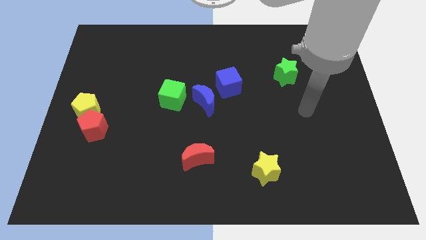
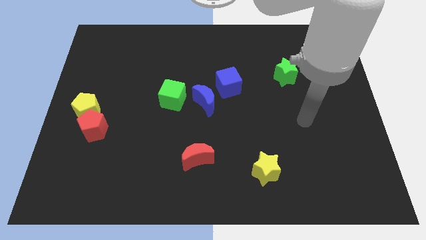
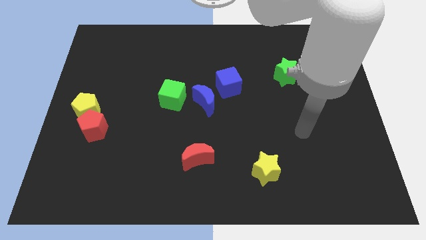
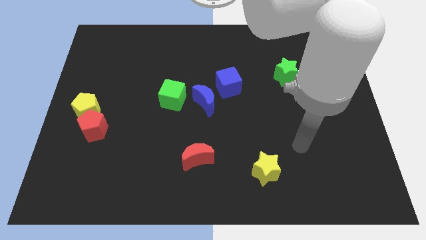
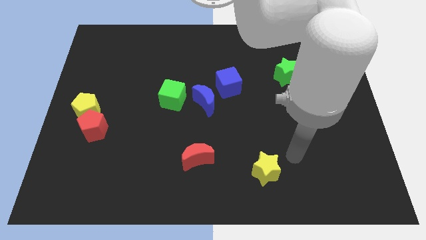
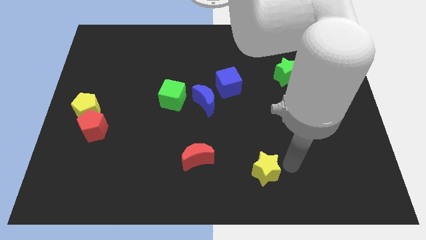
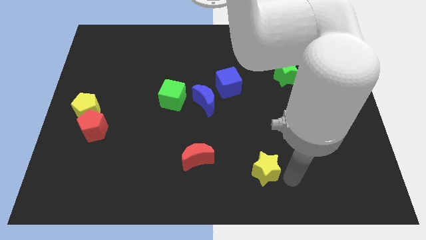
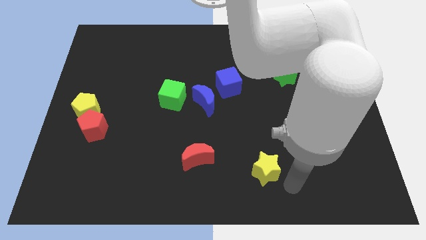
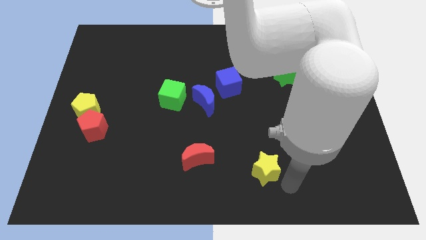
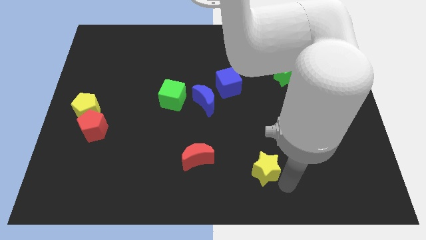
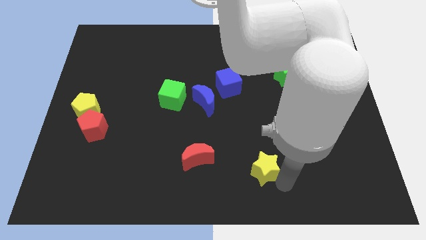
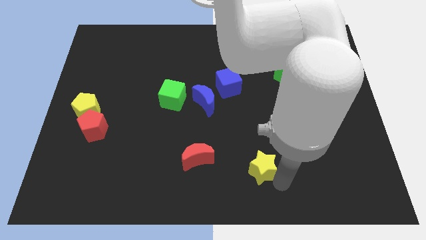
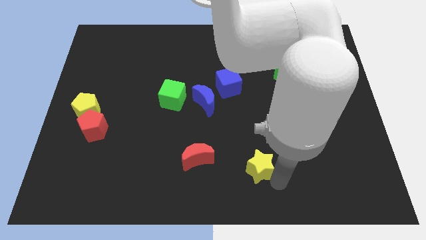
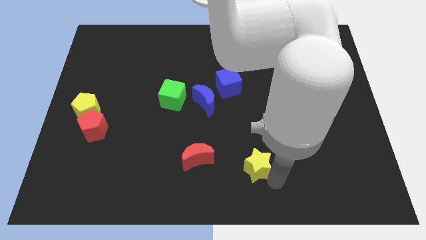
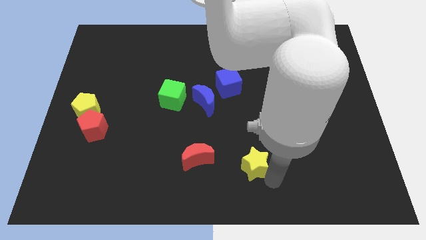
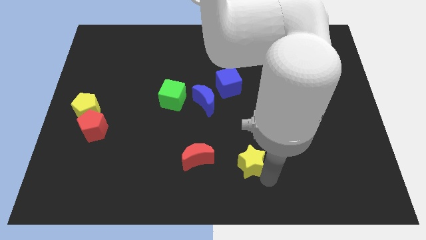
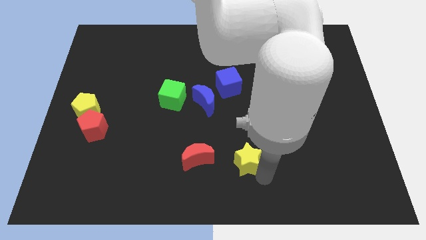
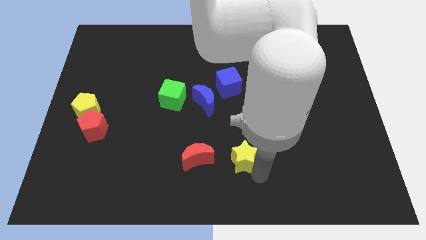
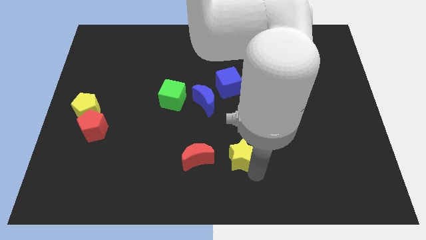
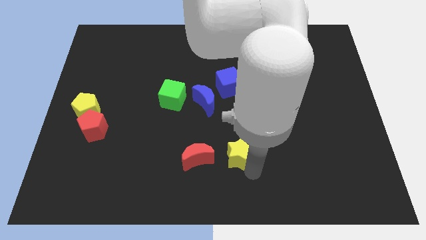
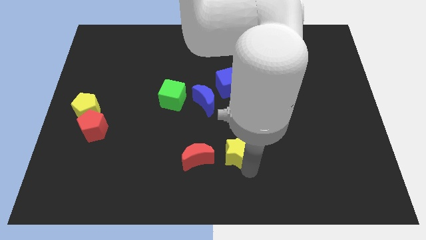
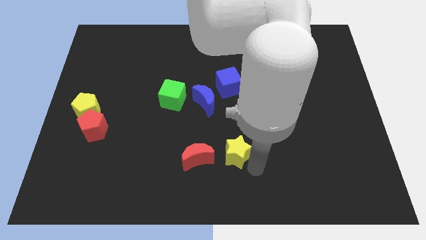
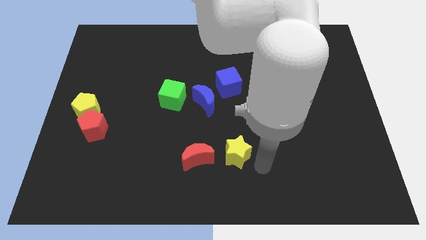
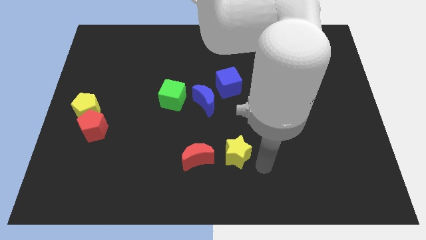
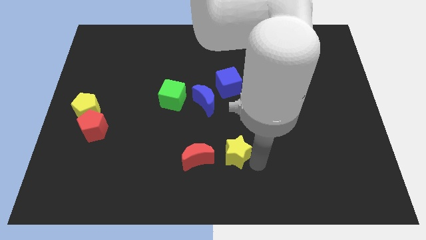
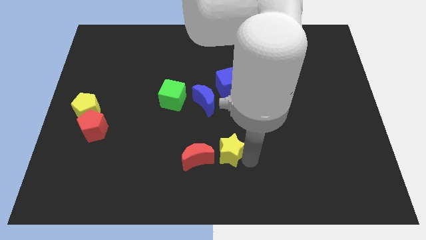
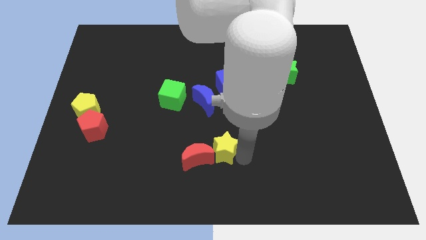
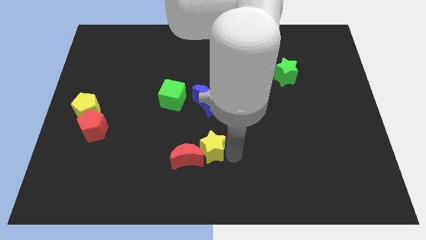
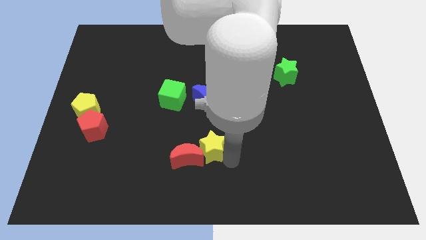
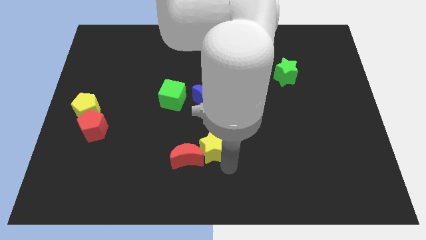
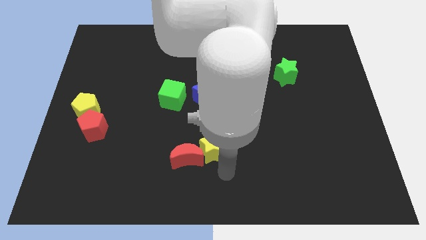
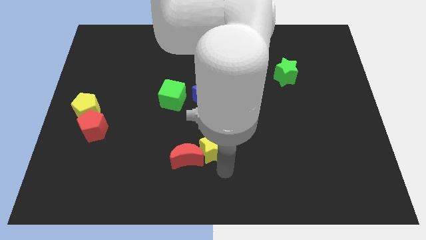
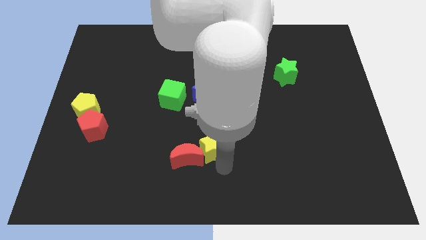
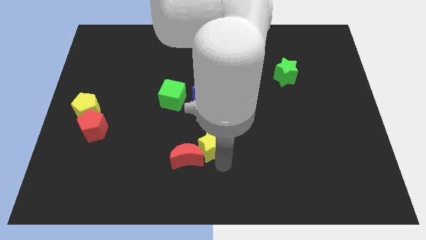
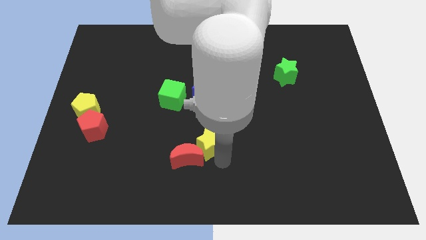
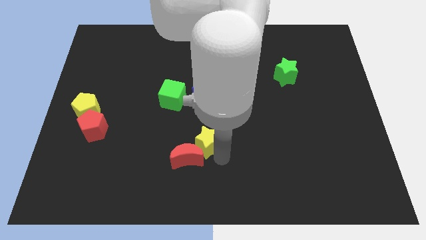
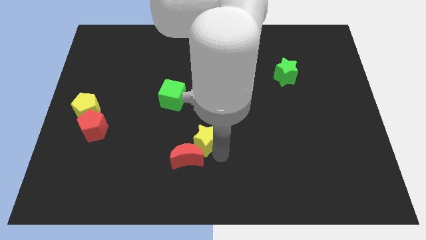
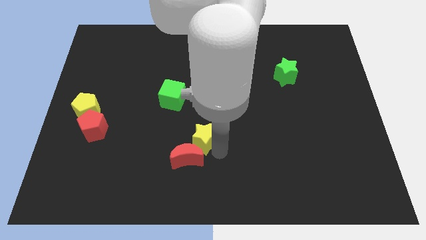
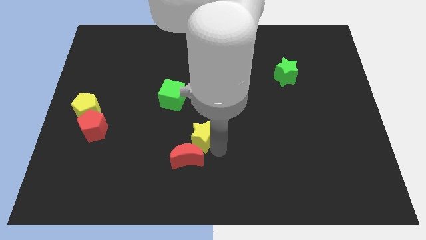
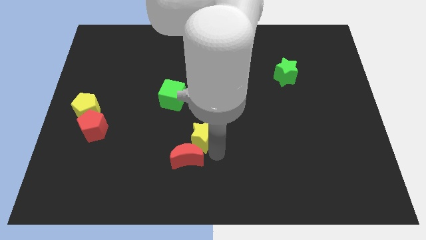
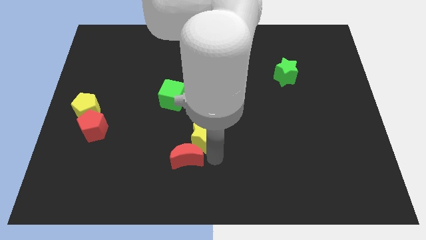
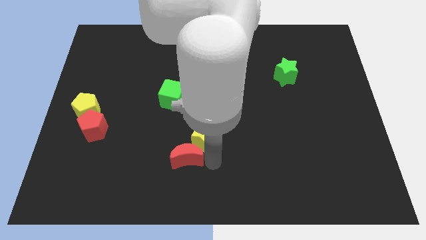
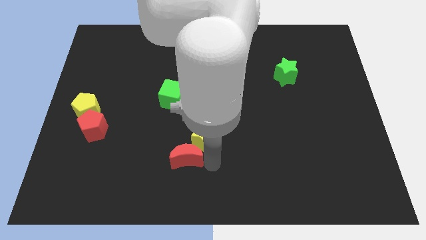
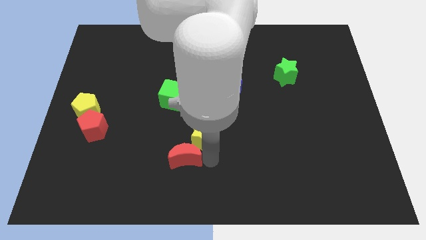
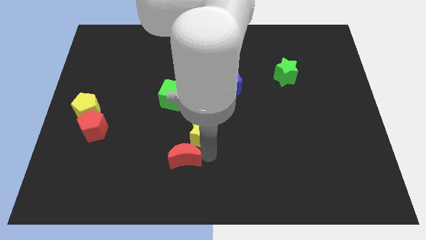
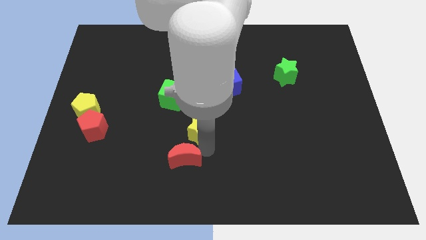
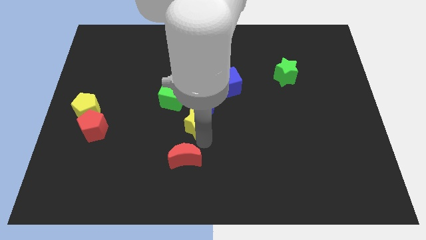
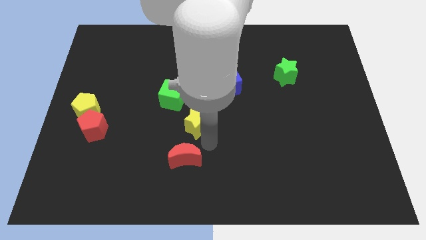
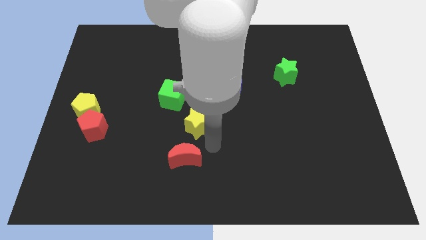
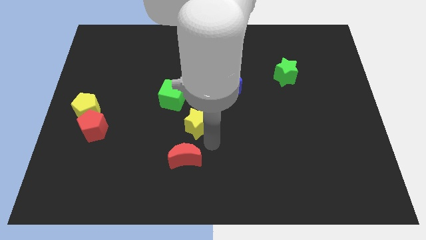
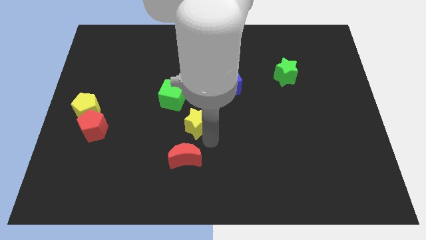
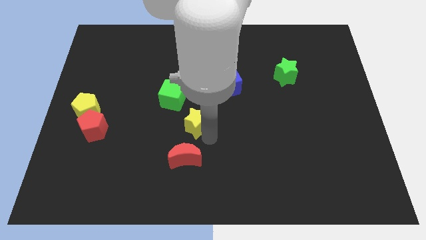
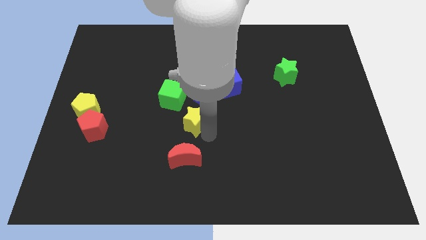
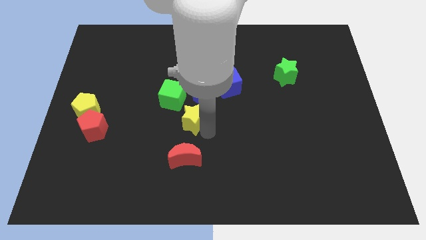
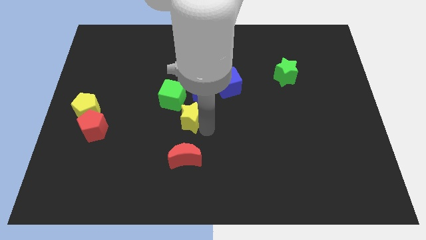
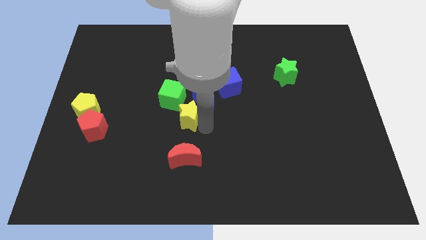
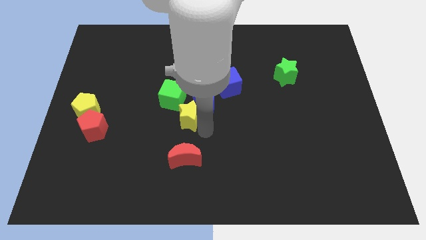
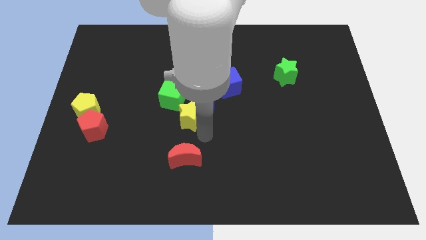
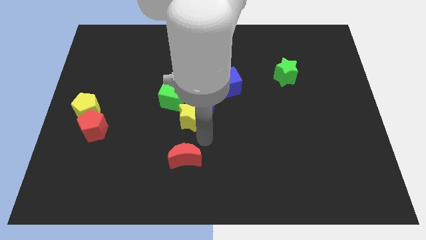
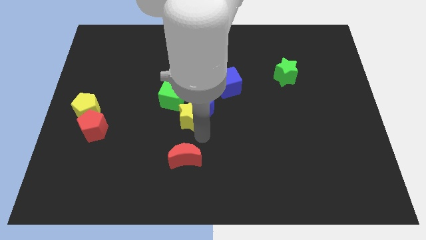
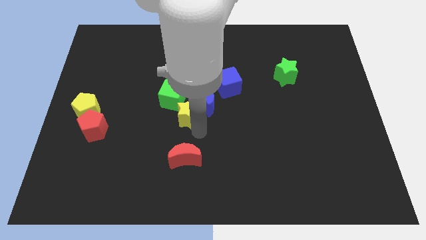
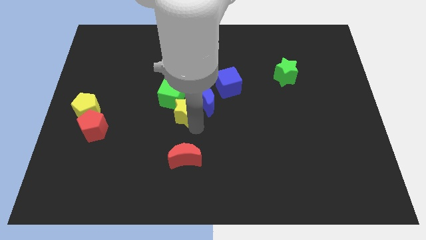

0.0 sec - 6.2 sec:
slide the yellow star towards the green cube

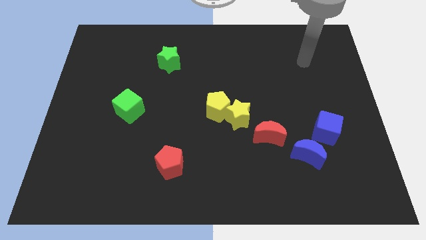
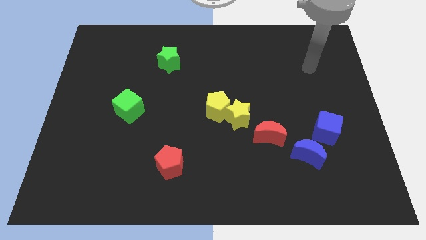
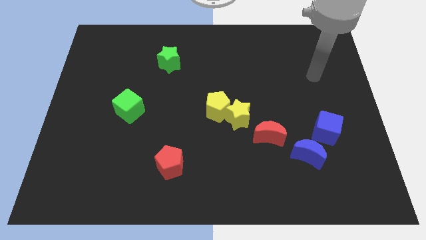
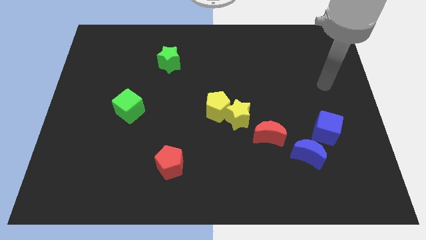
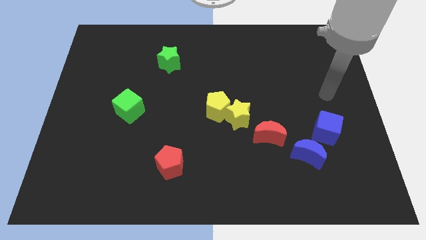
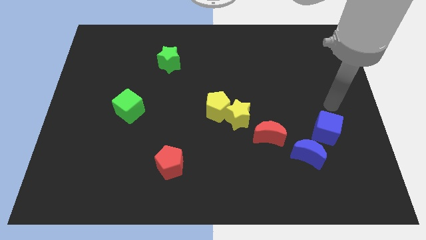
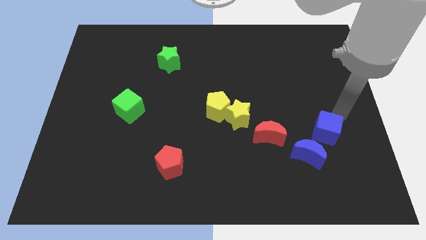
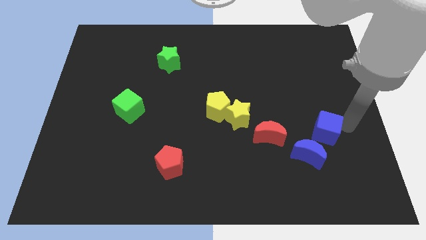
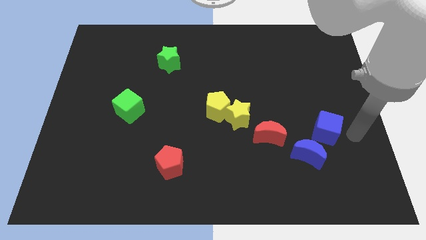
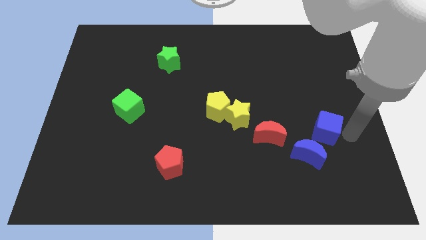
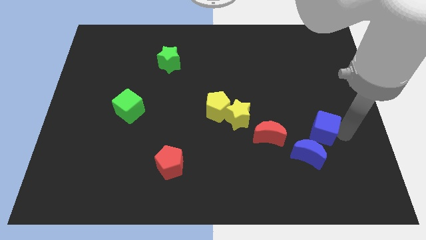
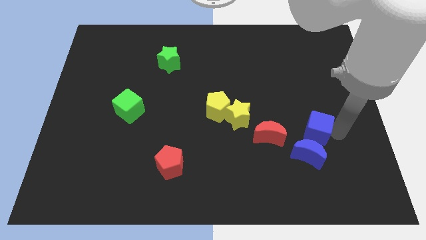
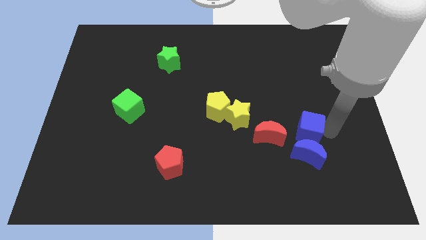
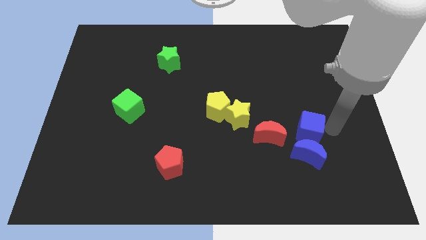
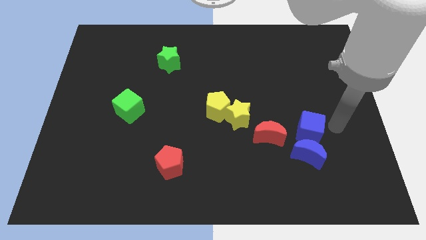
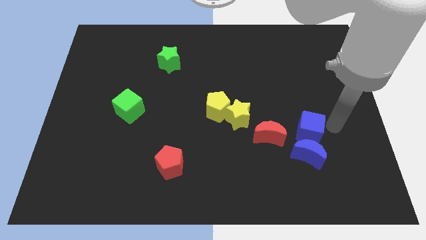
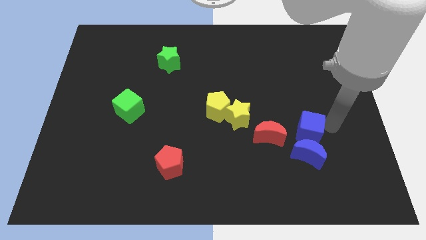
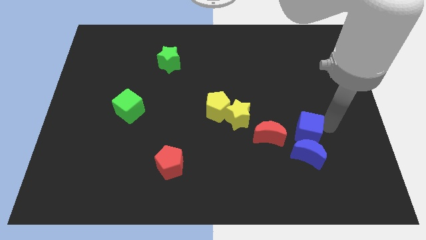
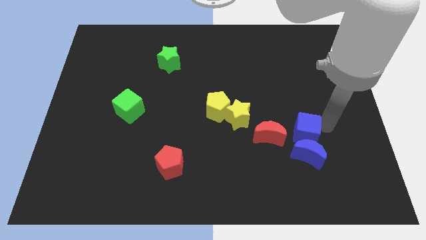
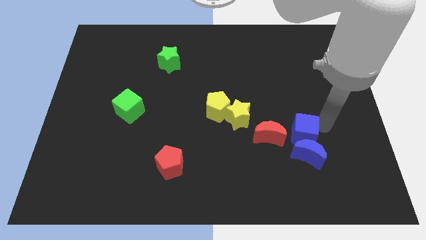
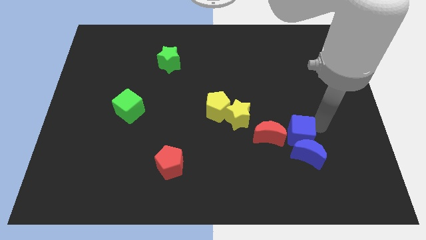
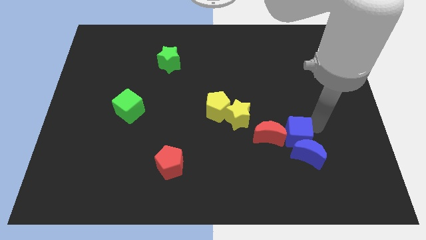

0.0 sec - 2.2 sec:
slide the blue cube to the red moon
